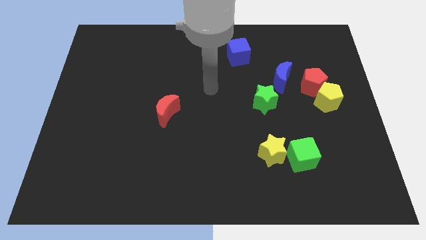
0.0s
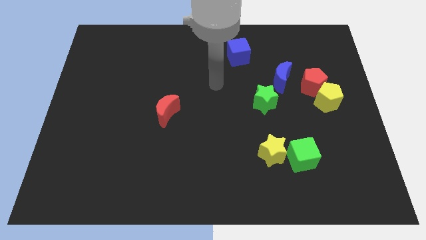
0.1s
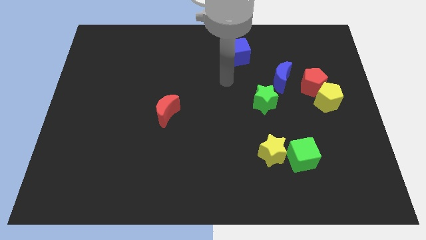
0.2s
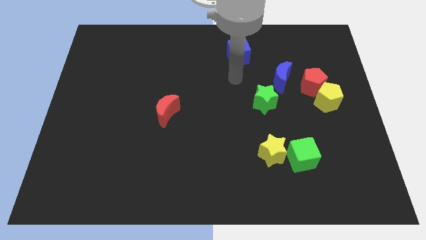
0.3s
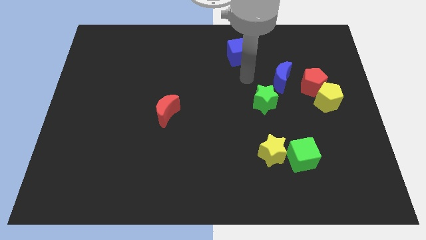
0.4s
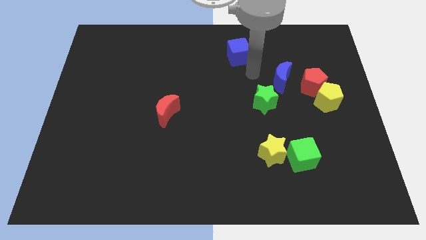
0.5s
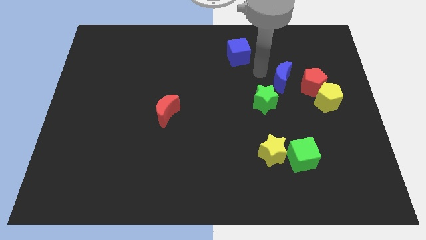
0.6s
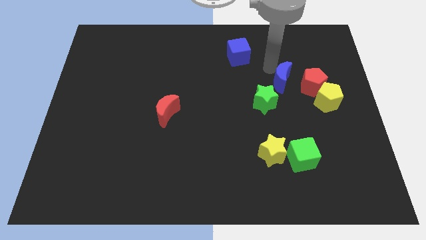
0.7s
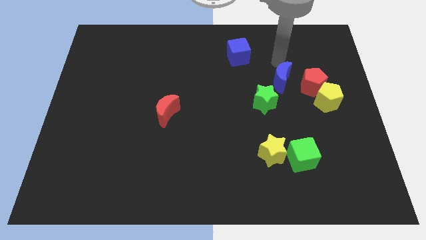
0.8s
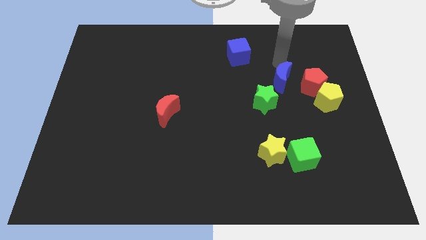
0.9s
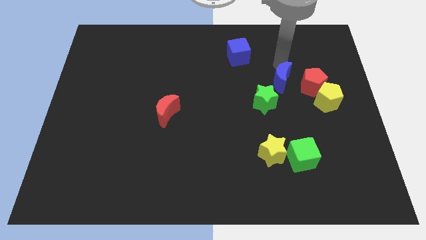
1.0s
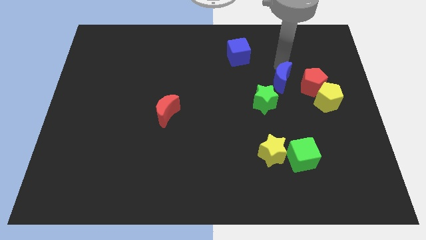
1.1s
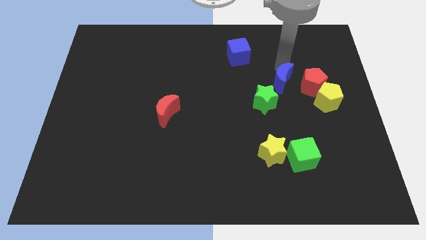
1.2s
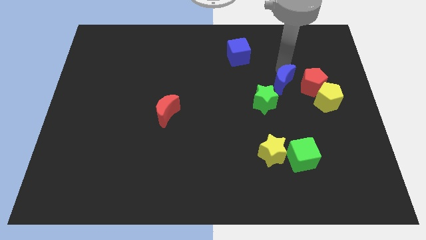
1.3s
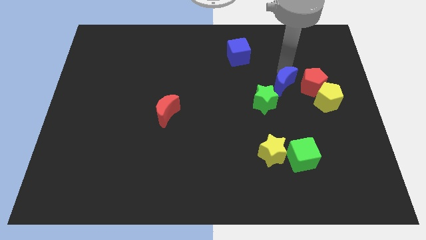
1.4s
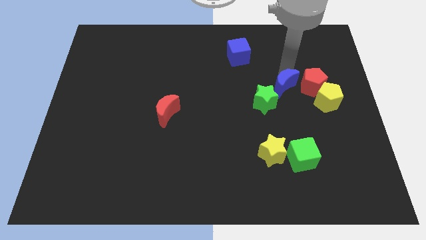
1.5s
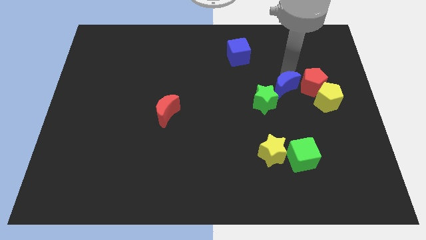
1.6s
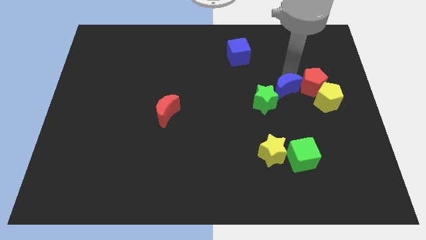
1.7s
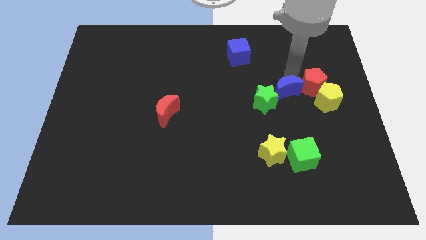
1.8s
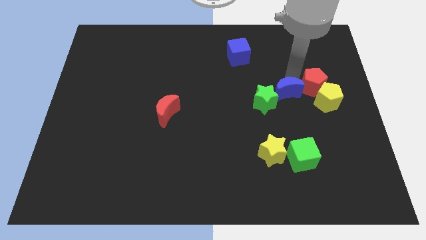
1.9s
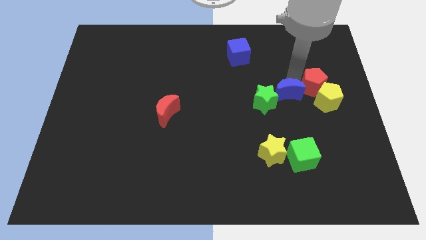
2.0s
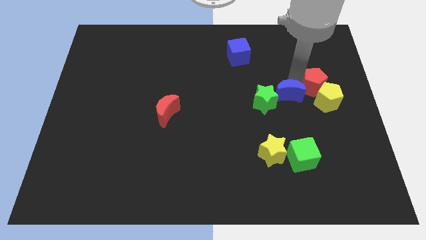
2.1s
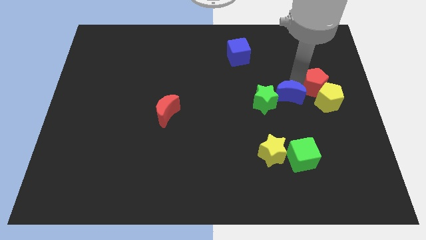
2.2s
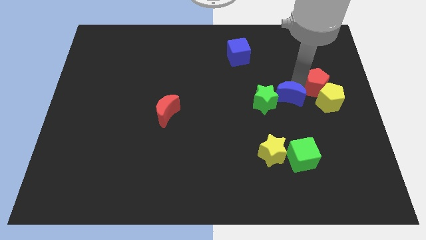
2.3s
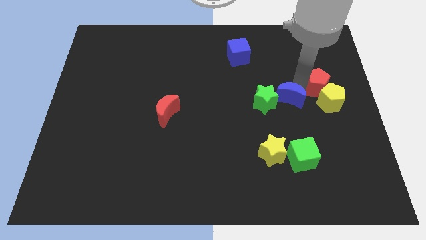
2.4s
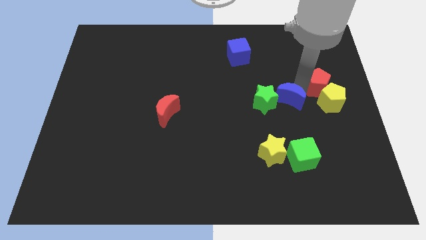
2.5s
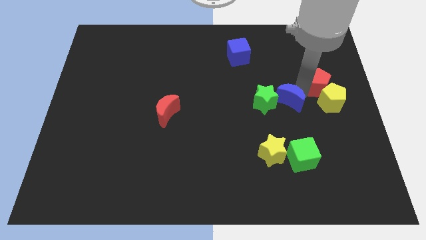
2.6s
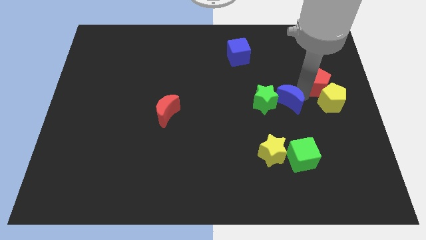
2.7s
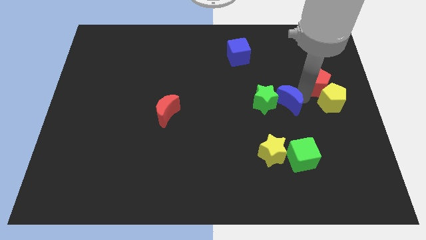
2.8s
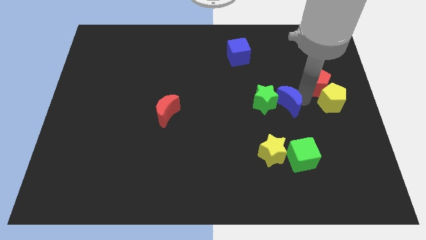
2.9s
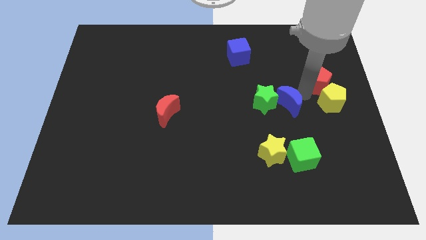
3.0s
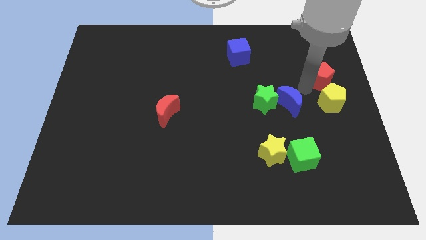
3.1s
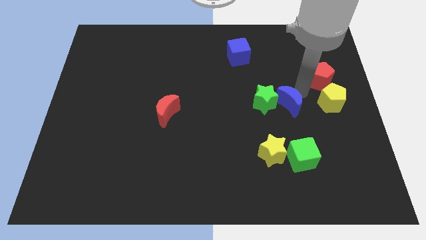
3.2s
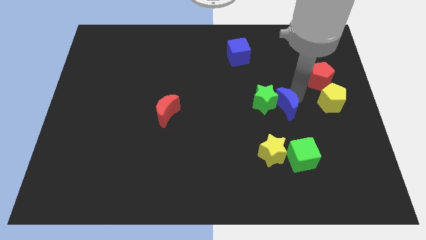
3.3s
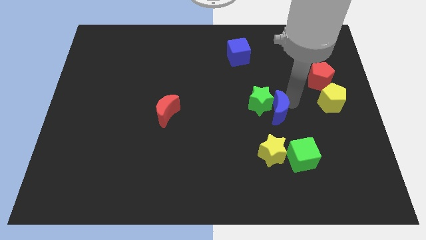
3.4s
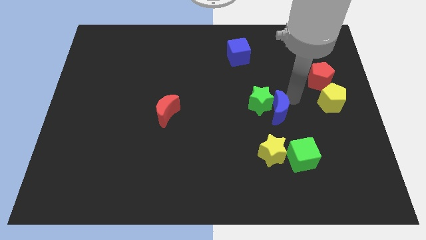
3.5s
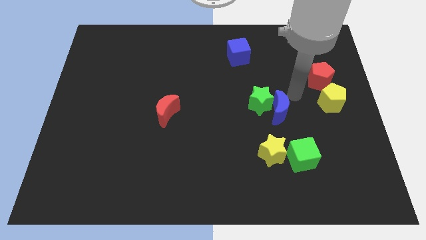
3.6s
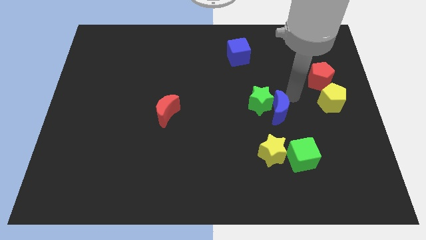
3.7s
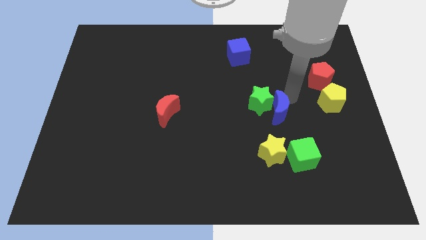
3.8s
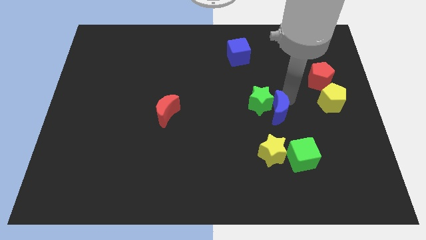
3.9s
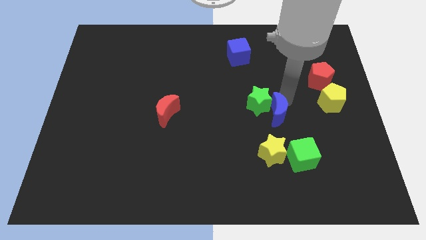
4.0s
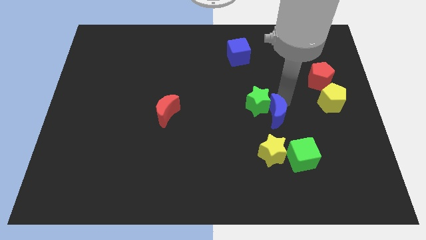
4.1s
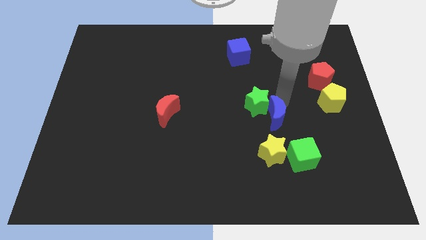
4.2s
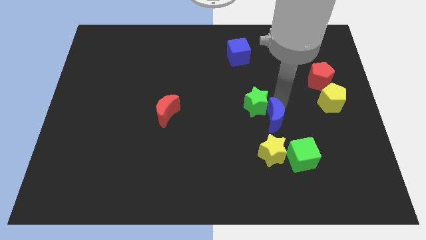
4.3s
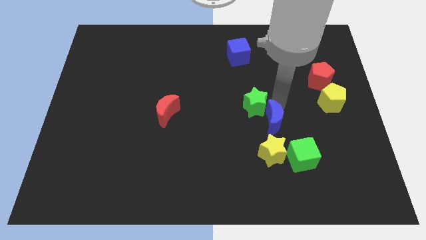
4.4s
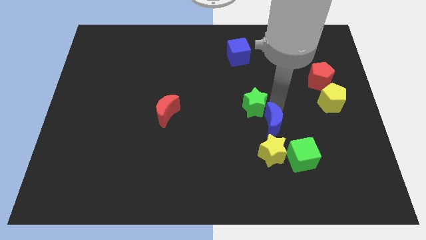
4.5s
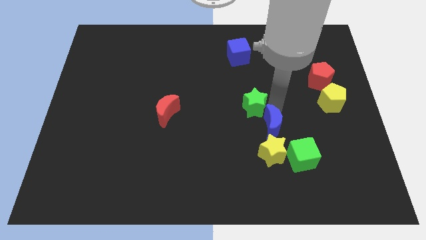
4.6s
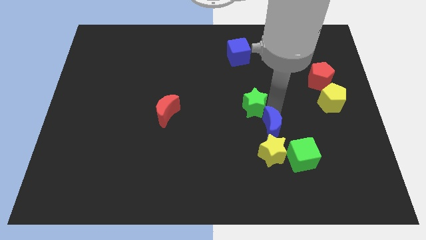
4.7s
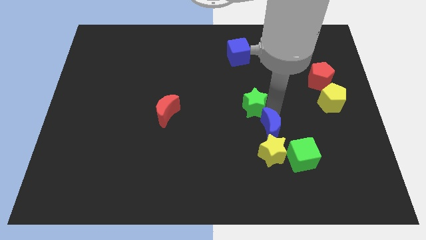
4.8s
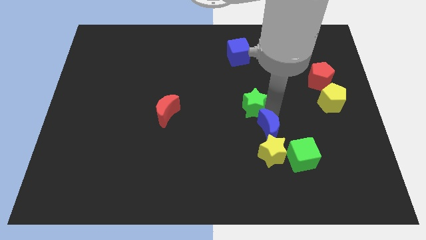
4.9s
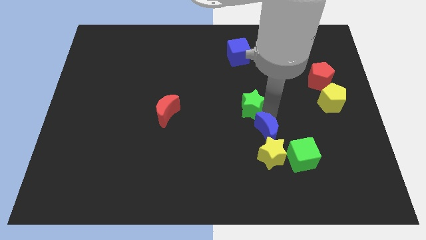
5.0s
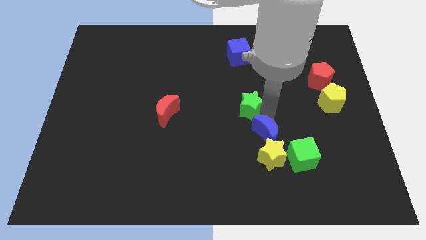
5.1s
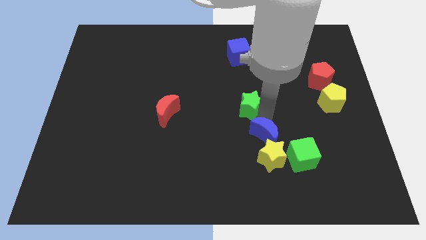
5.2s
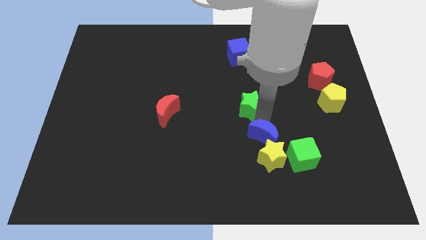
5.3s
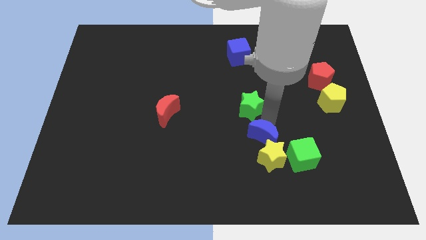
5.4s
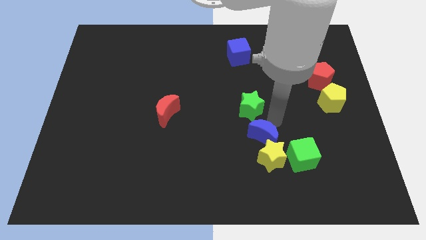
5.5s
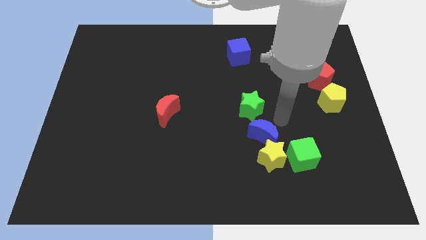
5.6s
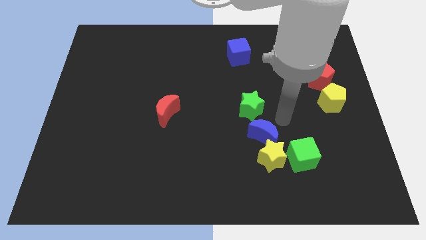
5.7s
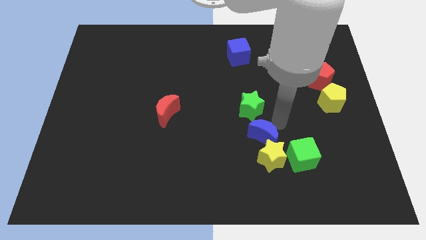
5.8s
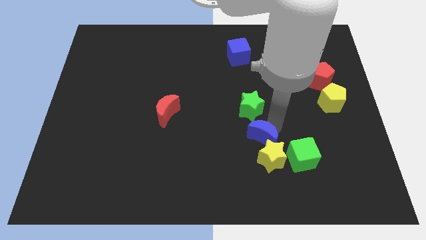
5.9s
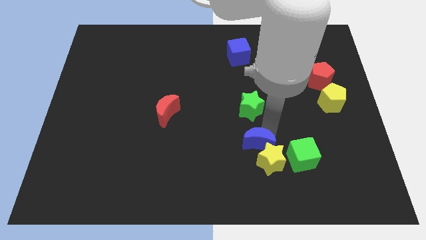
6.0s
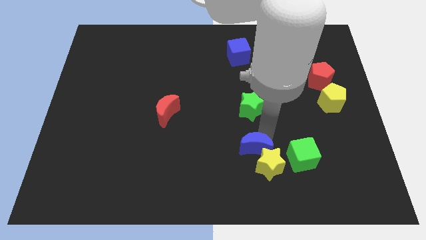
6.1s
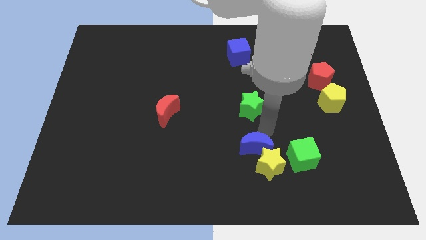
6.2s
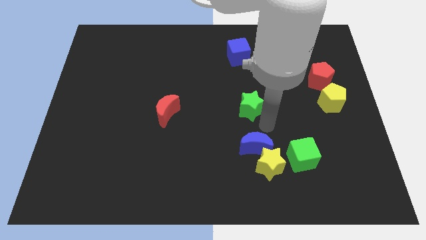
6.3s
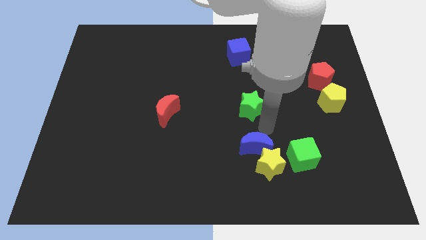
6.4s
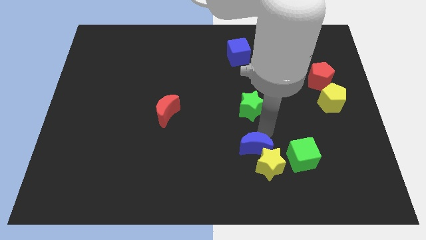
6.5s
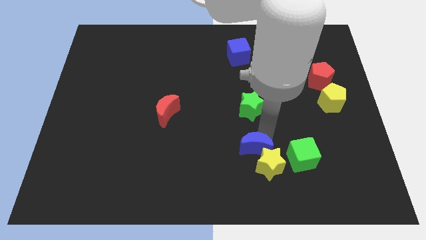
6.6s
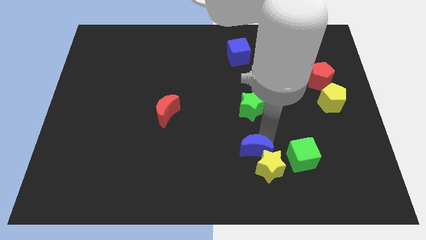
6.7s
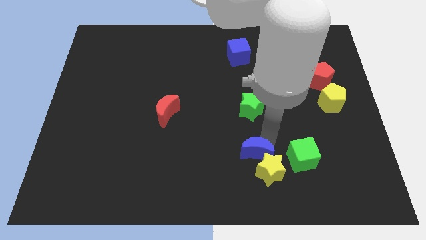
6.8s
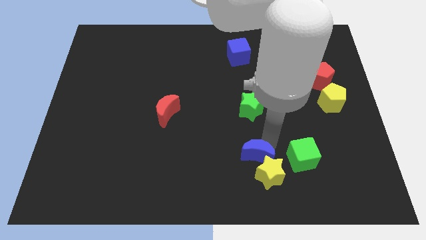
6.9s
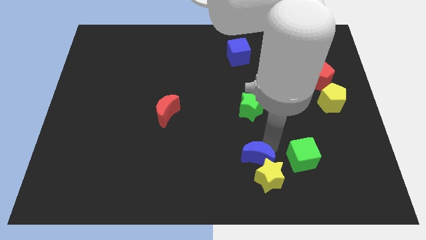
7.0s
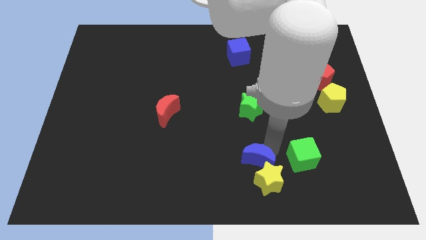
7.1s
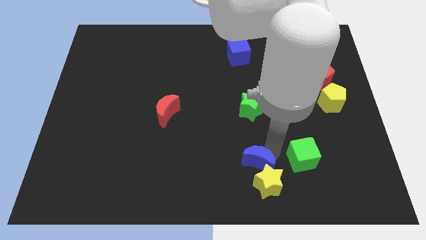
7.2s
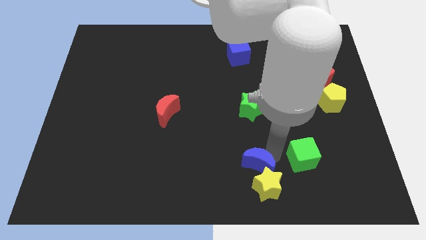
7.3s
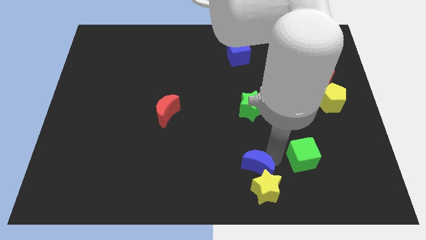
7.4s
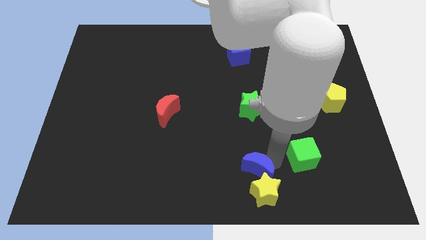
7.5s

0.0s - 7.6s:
put the blue moon to the bottom

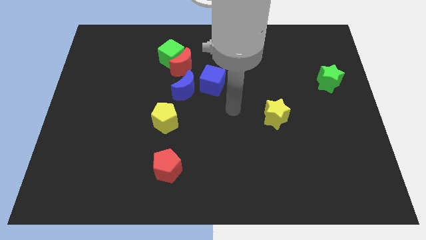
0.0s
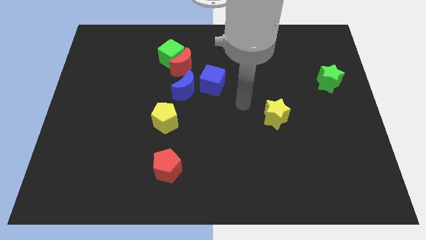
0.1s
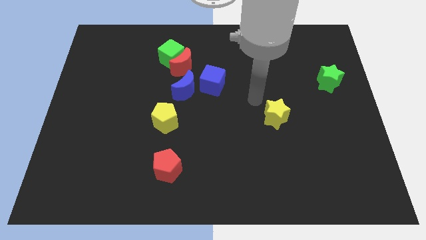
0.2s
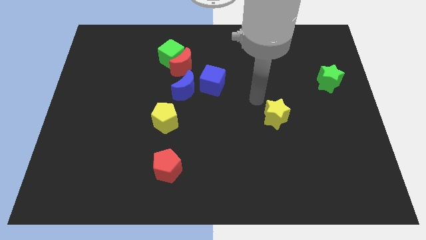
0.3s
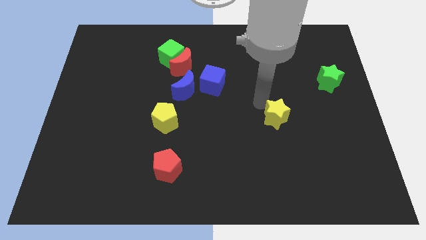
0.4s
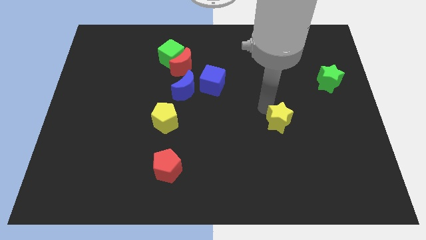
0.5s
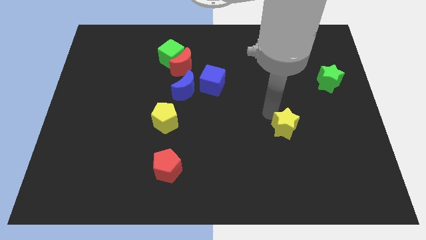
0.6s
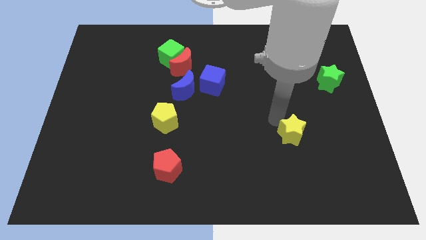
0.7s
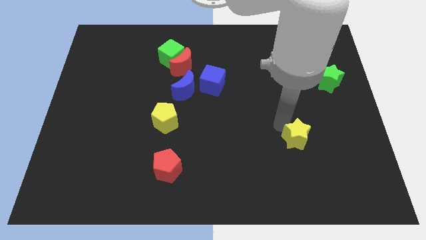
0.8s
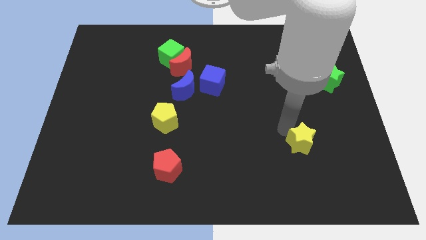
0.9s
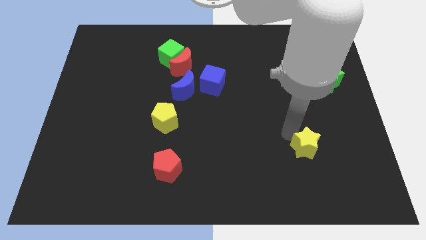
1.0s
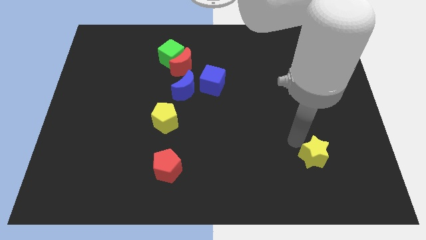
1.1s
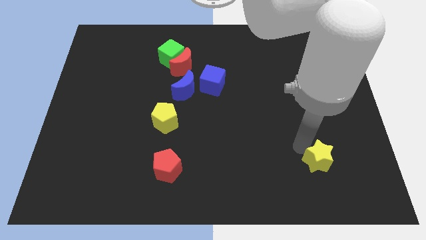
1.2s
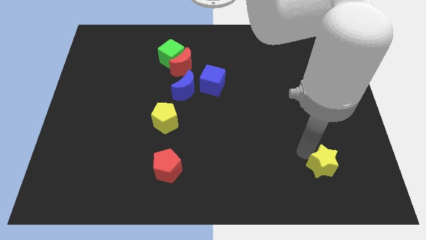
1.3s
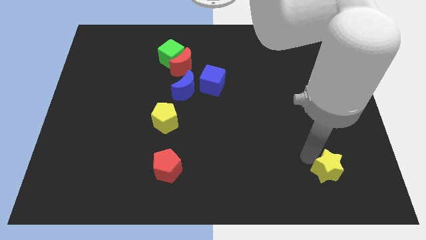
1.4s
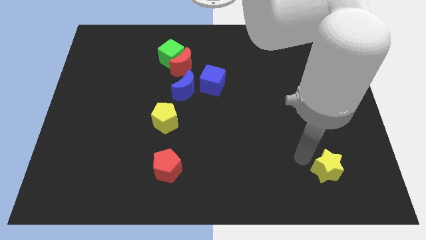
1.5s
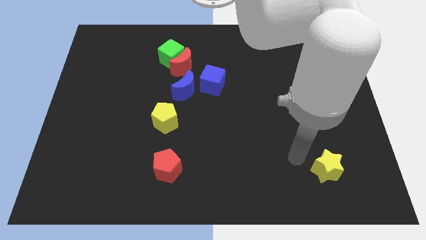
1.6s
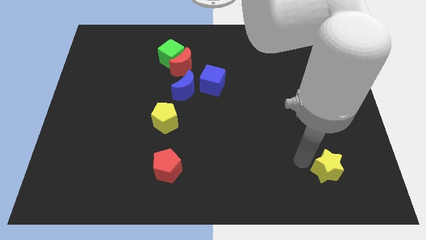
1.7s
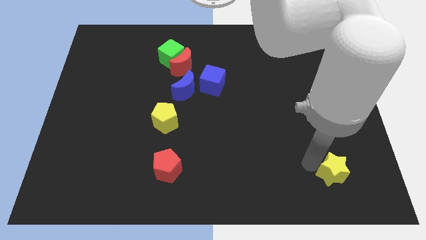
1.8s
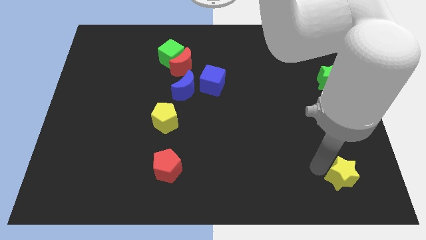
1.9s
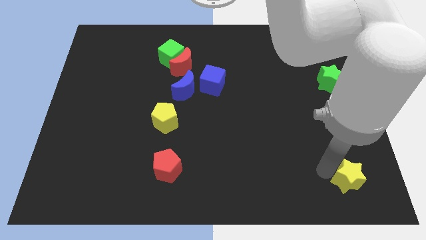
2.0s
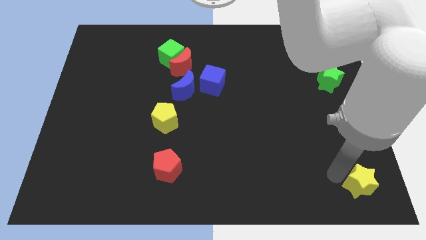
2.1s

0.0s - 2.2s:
slide the yellow star to the lower right corner
